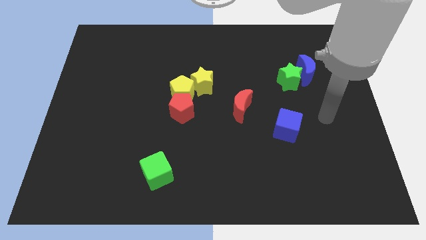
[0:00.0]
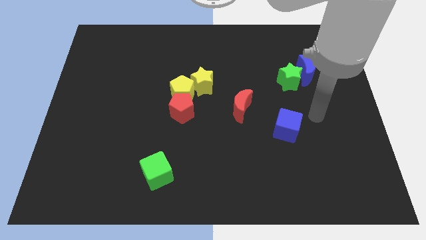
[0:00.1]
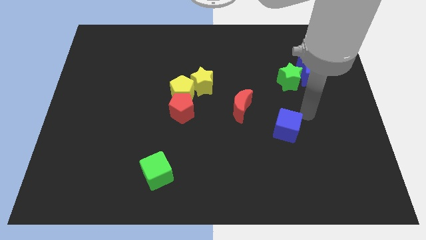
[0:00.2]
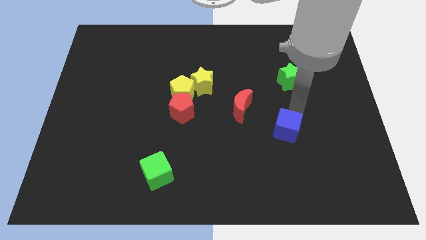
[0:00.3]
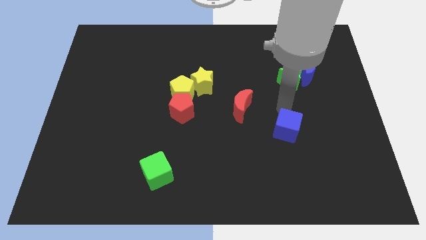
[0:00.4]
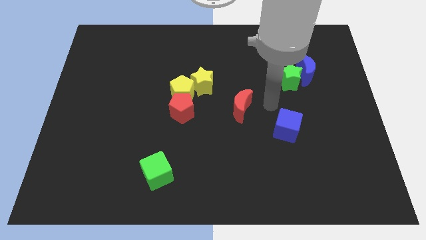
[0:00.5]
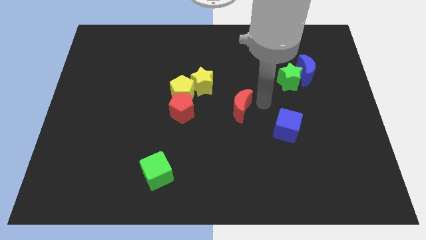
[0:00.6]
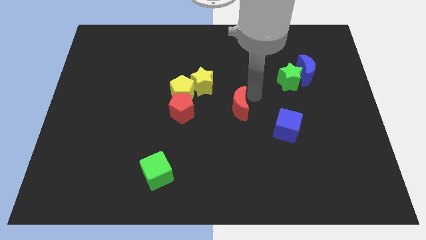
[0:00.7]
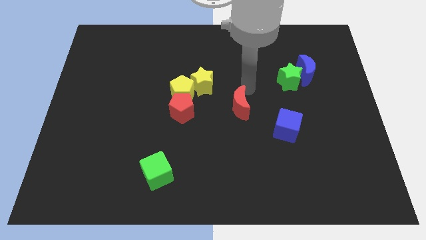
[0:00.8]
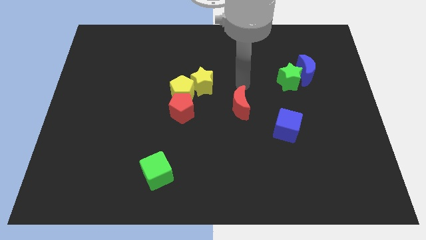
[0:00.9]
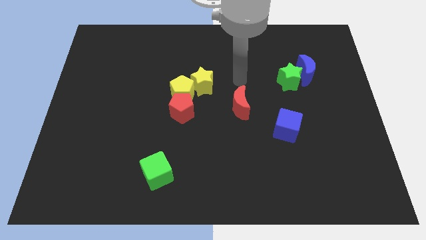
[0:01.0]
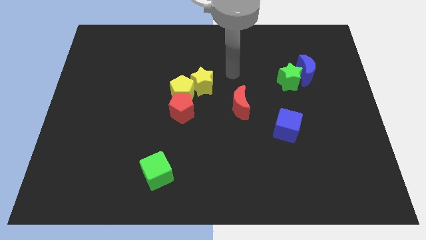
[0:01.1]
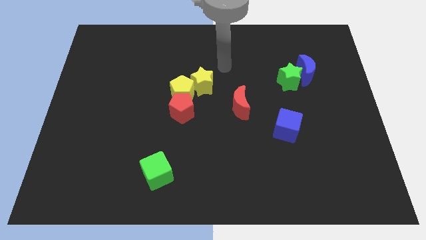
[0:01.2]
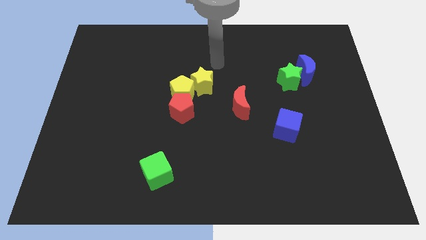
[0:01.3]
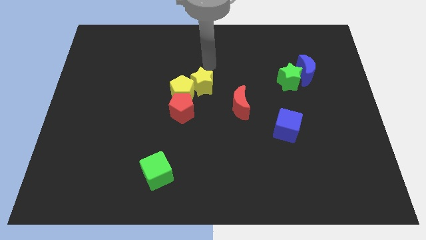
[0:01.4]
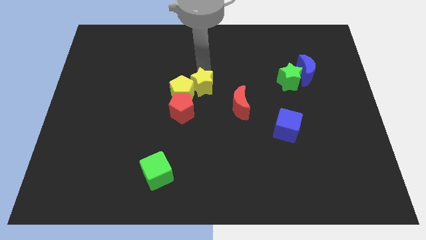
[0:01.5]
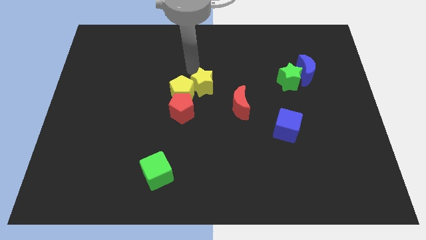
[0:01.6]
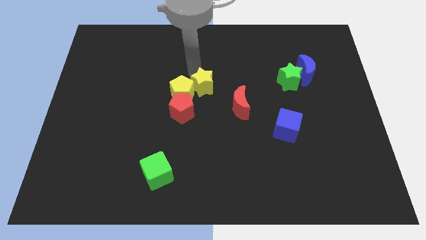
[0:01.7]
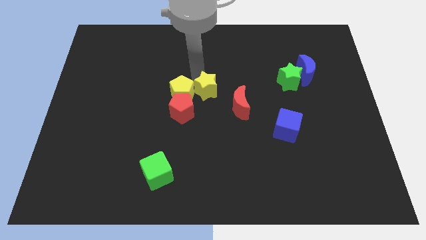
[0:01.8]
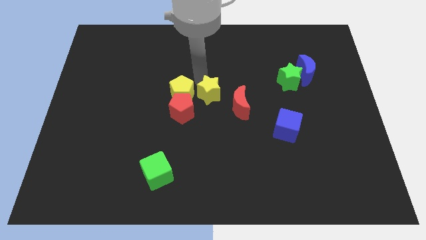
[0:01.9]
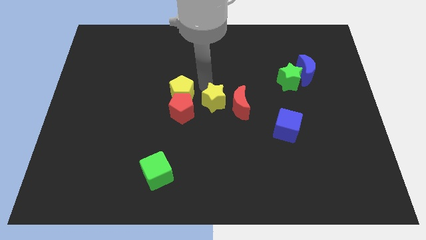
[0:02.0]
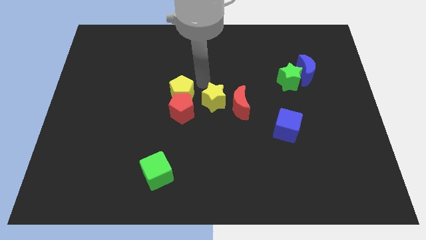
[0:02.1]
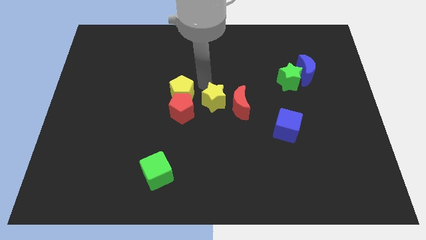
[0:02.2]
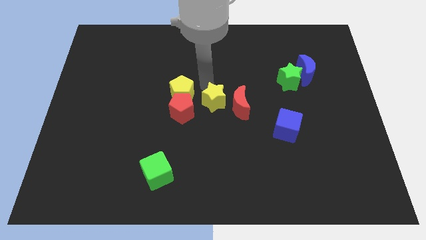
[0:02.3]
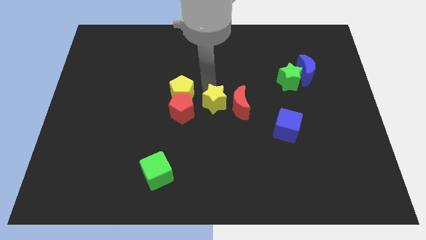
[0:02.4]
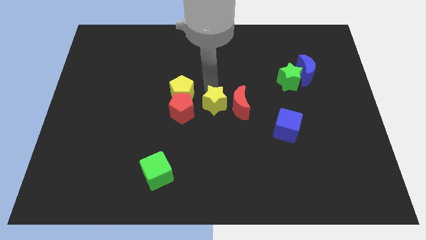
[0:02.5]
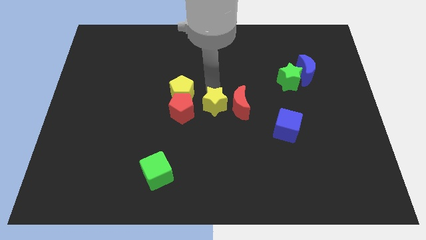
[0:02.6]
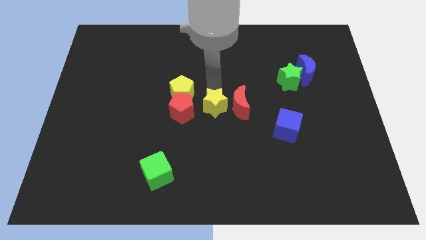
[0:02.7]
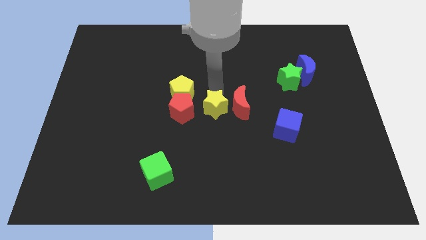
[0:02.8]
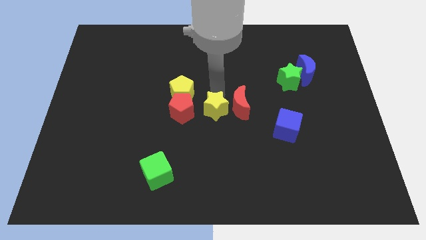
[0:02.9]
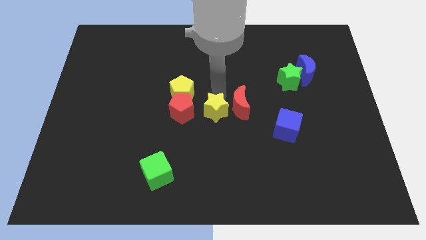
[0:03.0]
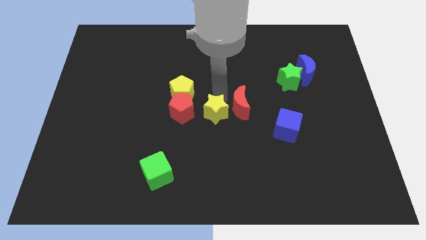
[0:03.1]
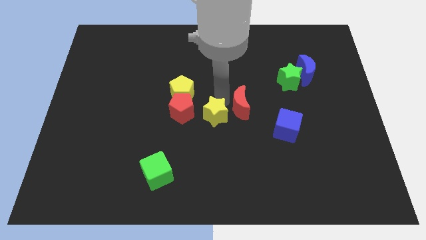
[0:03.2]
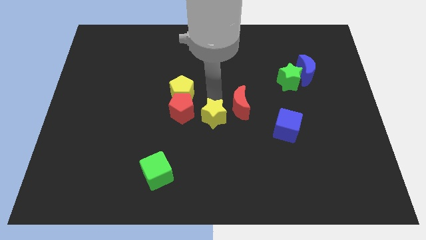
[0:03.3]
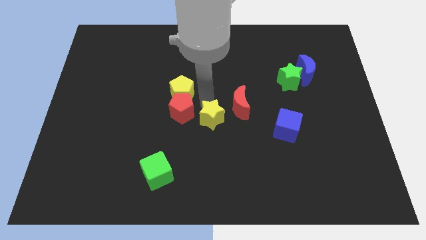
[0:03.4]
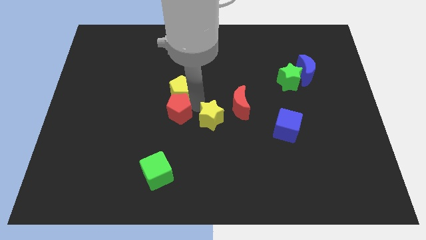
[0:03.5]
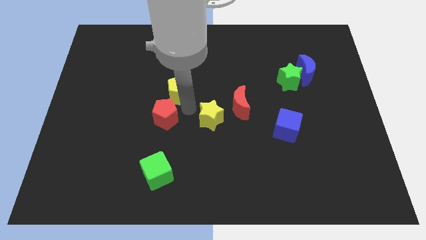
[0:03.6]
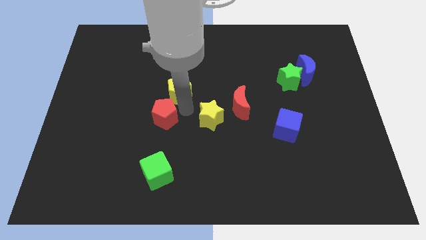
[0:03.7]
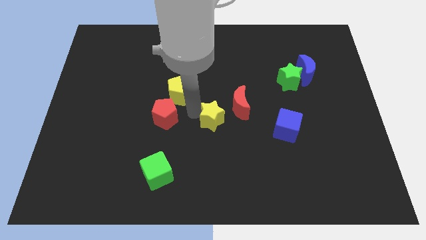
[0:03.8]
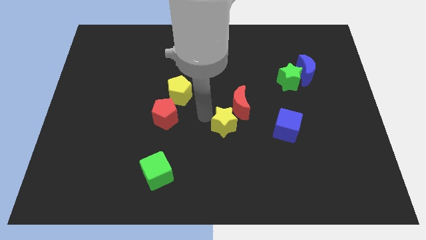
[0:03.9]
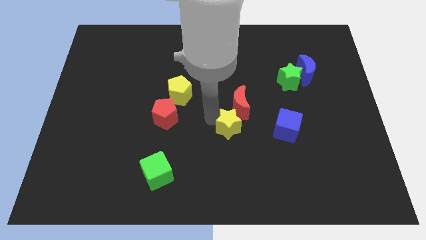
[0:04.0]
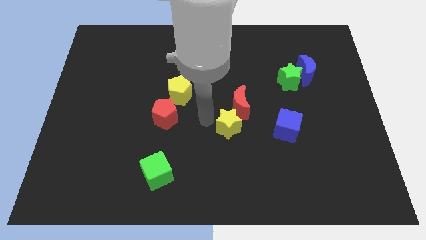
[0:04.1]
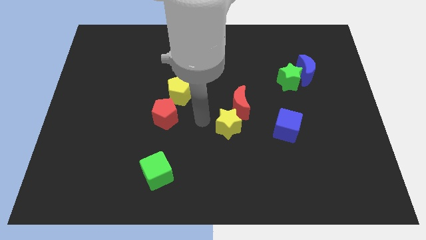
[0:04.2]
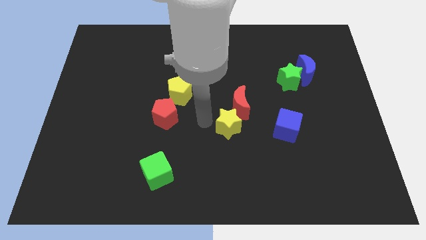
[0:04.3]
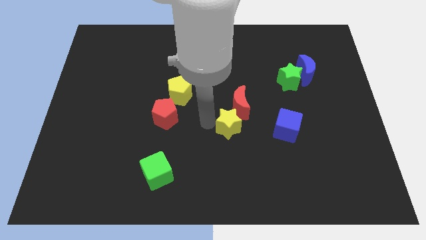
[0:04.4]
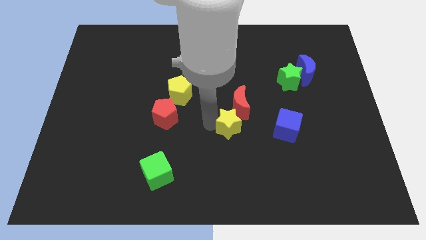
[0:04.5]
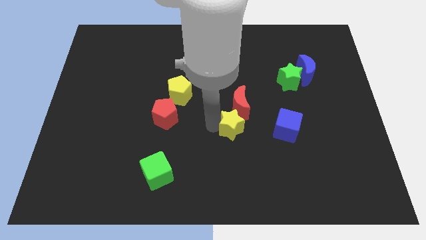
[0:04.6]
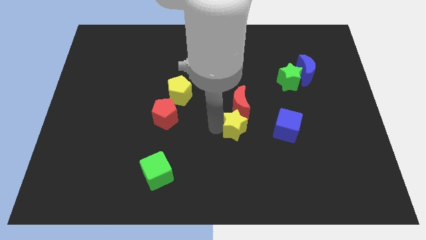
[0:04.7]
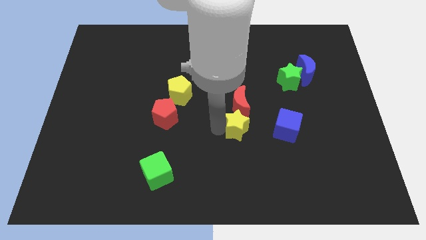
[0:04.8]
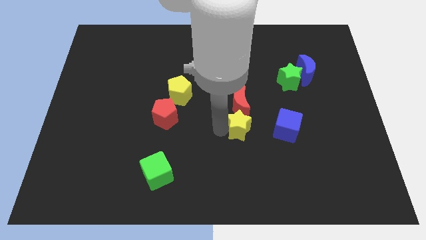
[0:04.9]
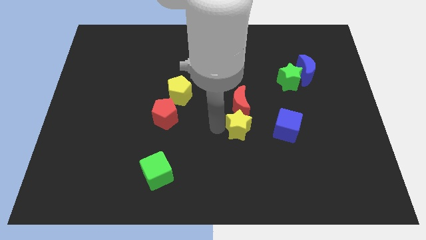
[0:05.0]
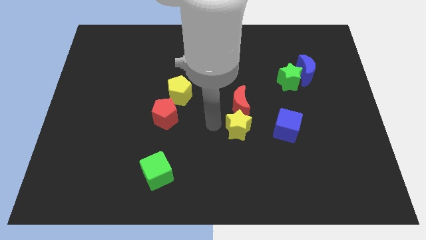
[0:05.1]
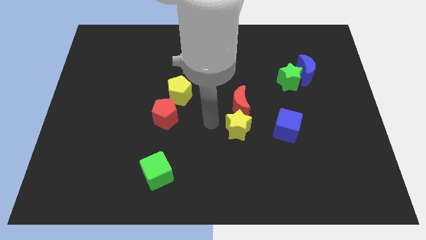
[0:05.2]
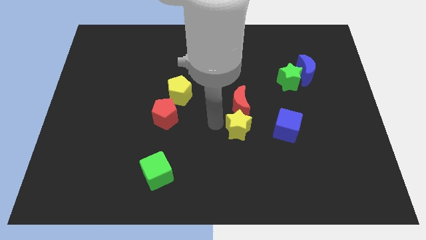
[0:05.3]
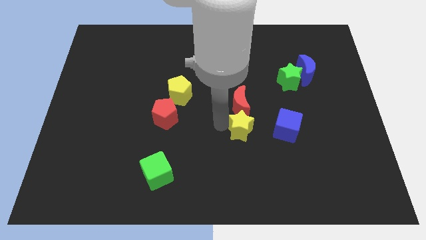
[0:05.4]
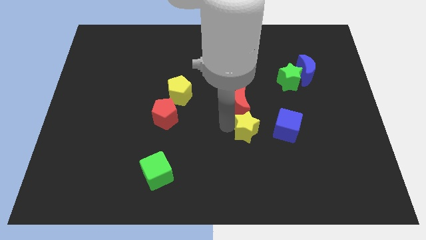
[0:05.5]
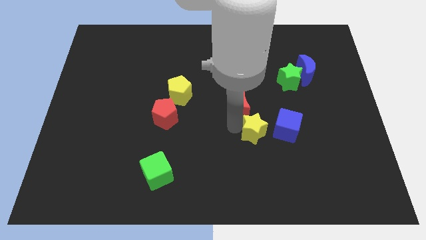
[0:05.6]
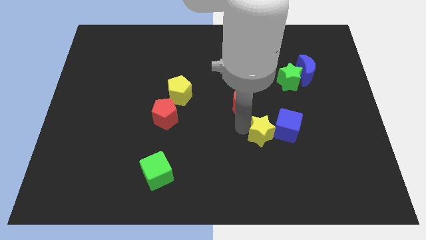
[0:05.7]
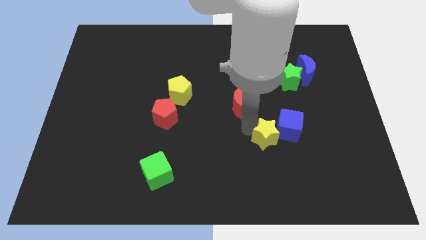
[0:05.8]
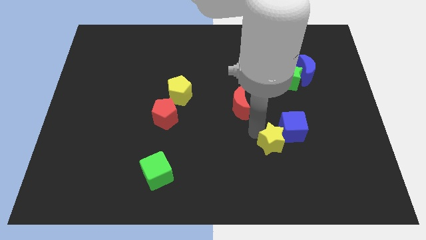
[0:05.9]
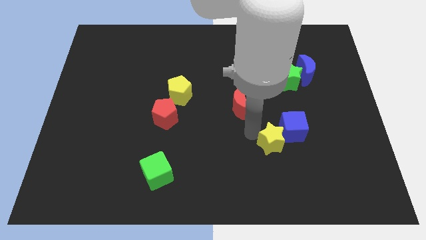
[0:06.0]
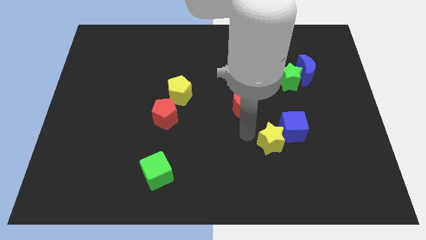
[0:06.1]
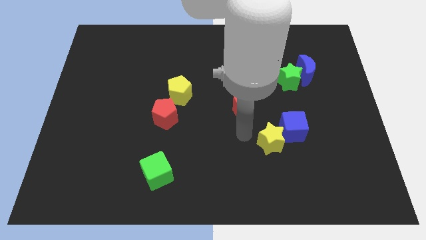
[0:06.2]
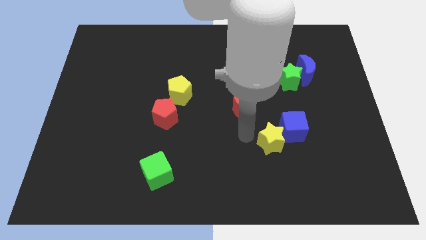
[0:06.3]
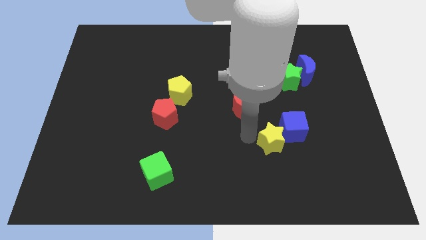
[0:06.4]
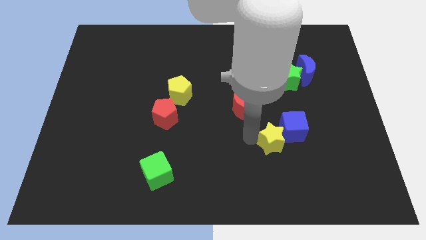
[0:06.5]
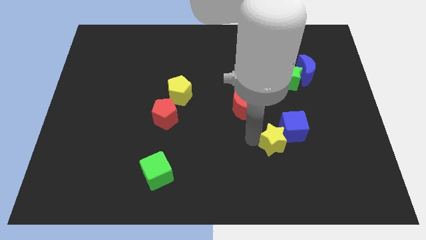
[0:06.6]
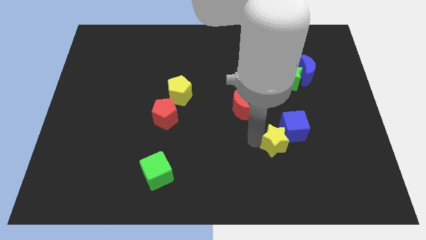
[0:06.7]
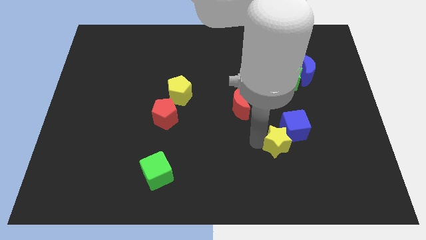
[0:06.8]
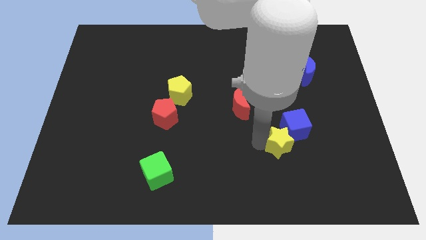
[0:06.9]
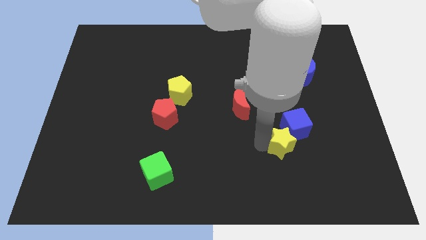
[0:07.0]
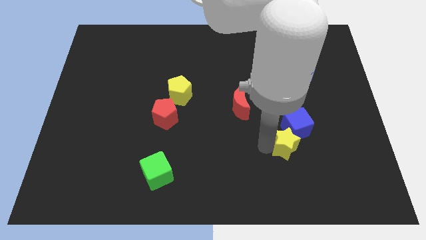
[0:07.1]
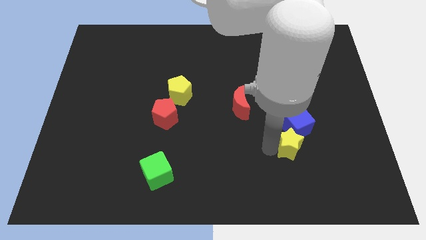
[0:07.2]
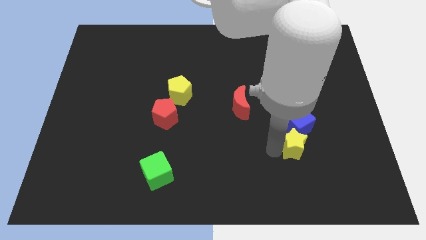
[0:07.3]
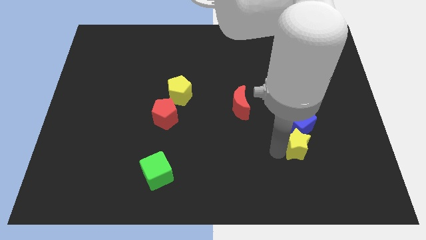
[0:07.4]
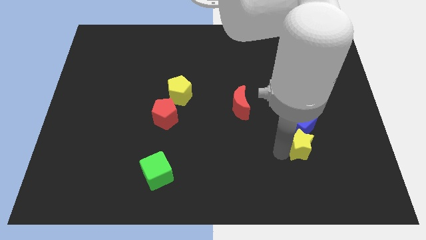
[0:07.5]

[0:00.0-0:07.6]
put the yellow star to the bottom right side of the blue cube

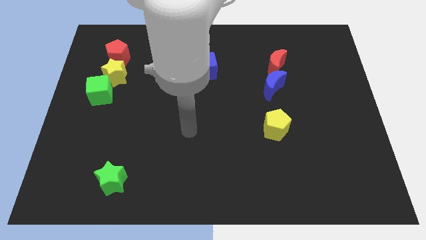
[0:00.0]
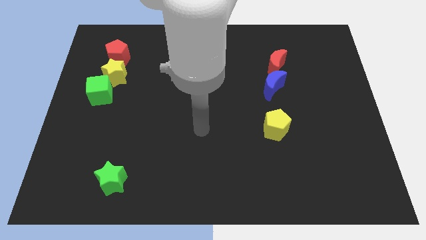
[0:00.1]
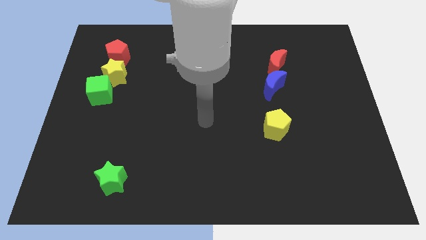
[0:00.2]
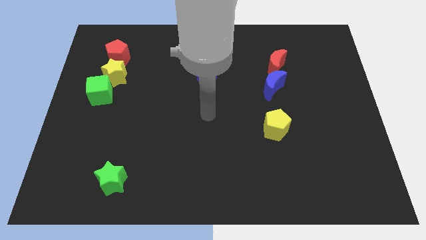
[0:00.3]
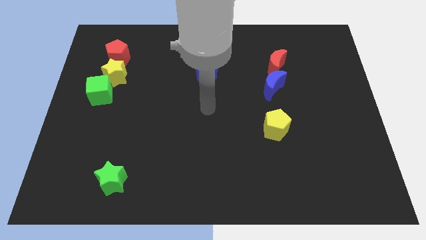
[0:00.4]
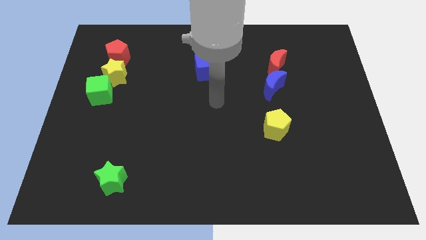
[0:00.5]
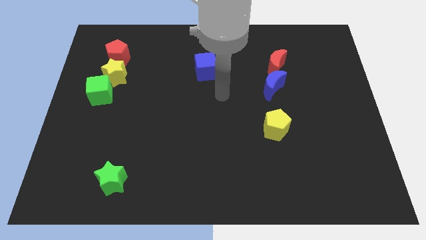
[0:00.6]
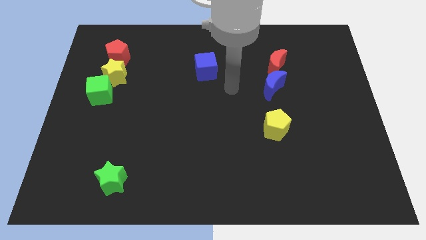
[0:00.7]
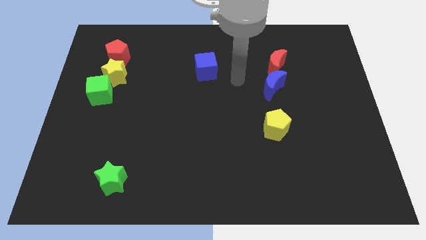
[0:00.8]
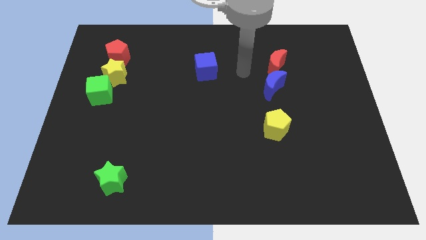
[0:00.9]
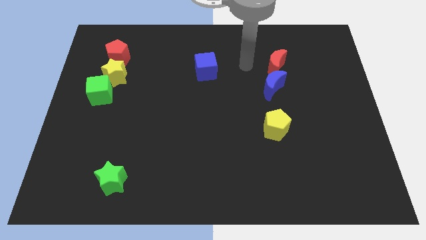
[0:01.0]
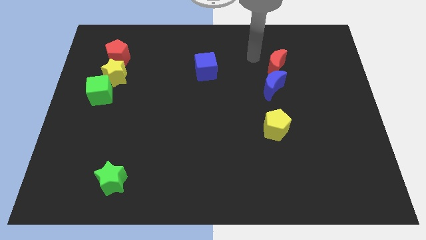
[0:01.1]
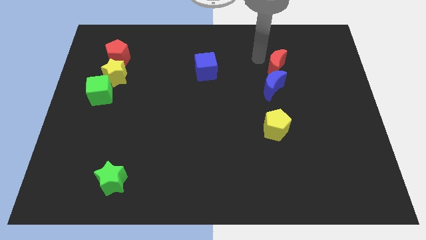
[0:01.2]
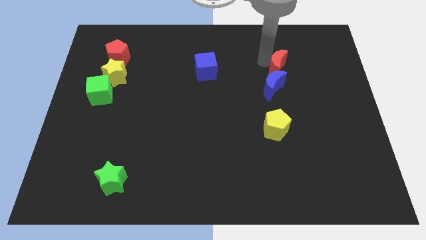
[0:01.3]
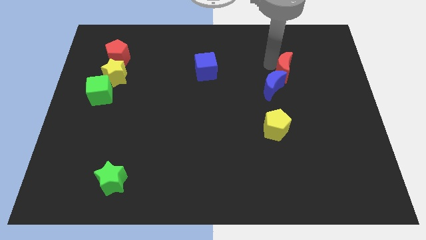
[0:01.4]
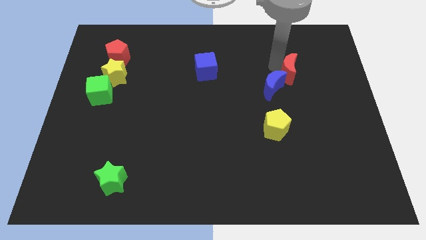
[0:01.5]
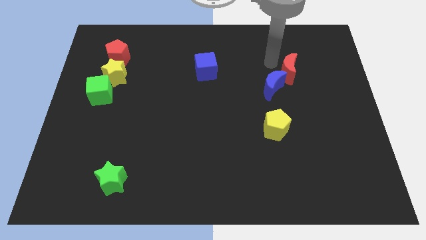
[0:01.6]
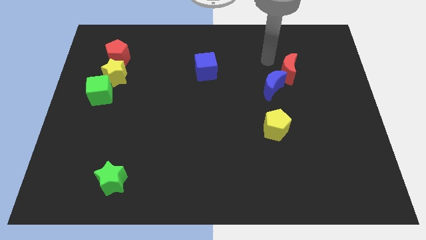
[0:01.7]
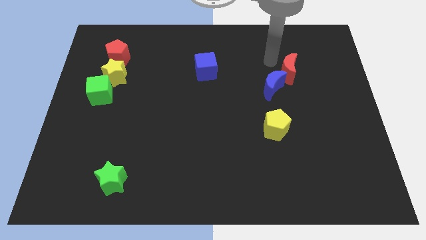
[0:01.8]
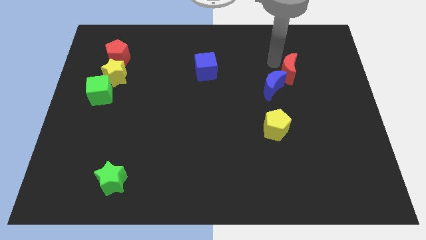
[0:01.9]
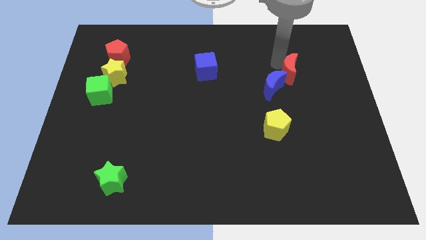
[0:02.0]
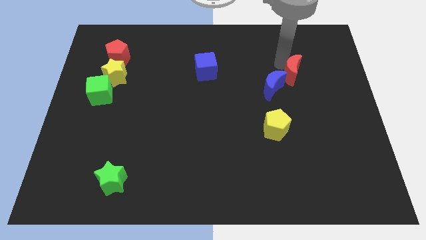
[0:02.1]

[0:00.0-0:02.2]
put the red moon just right of the blue moon
